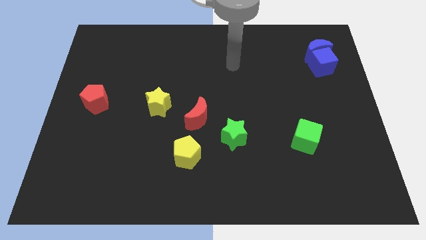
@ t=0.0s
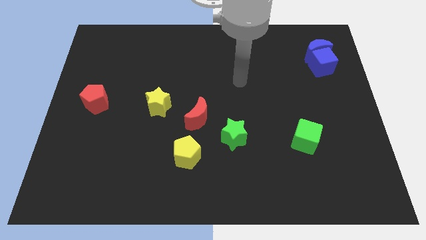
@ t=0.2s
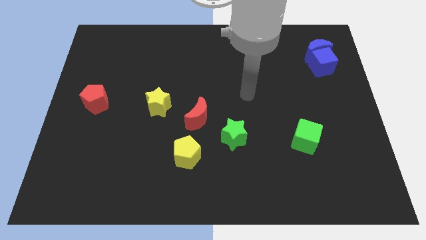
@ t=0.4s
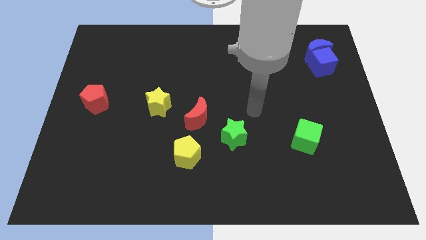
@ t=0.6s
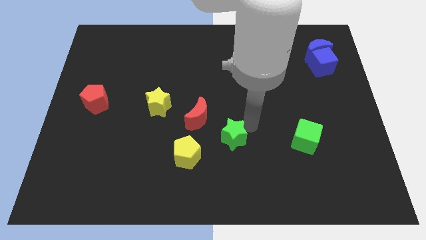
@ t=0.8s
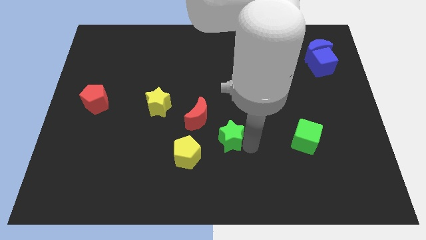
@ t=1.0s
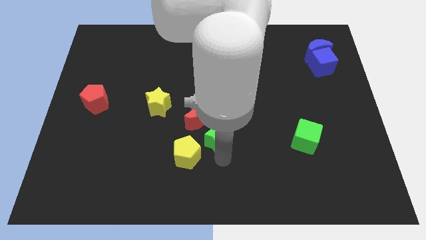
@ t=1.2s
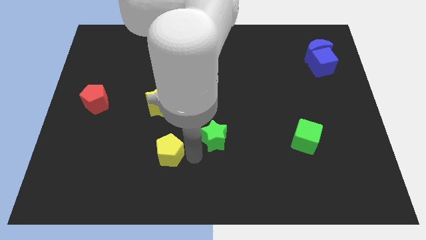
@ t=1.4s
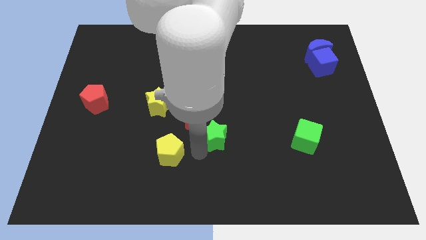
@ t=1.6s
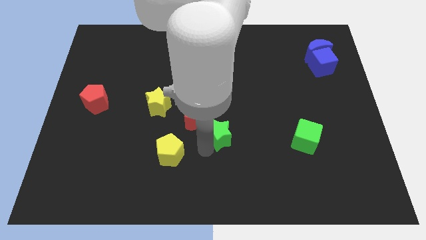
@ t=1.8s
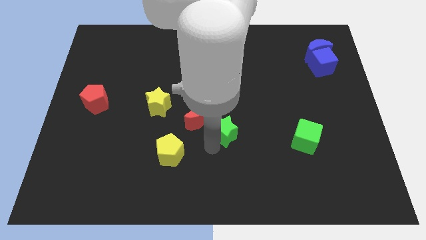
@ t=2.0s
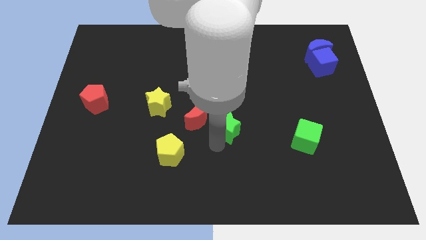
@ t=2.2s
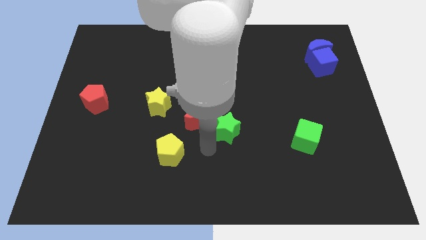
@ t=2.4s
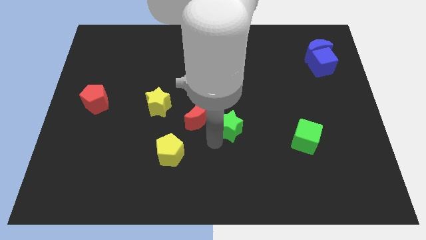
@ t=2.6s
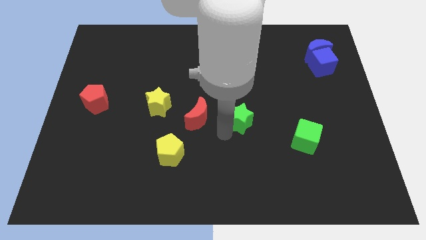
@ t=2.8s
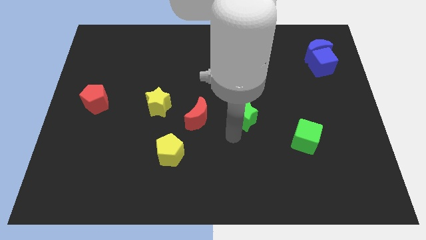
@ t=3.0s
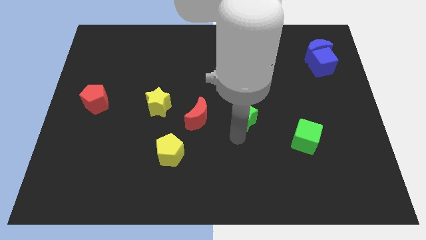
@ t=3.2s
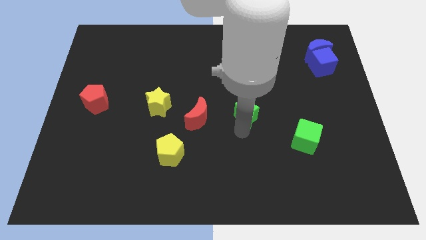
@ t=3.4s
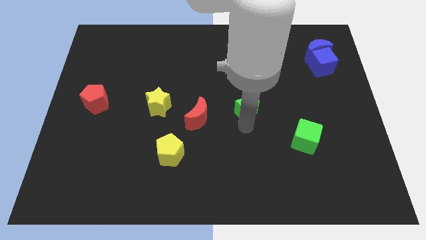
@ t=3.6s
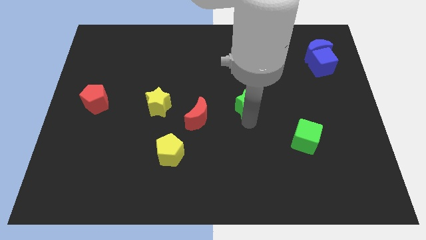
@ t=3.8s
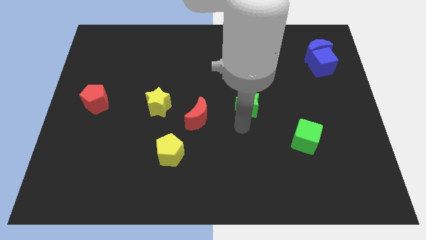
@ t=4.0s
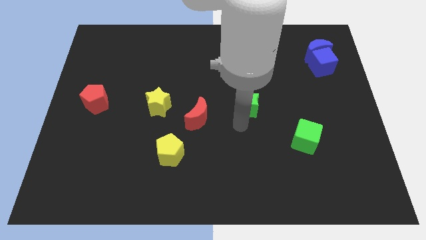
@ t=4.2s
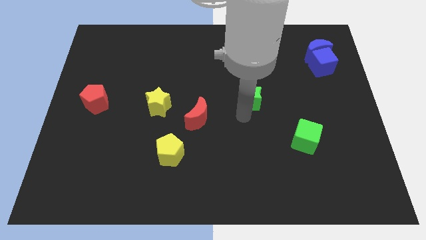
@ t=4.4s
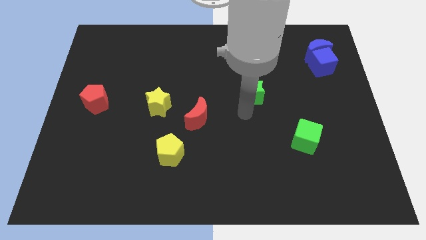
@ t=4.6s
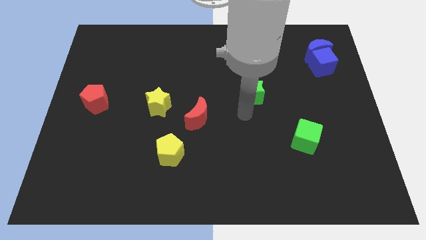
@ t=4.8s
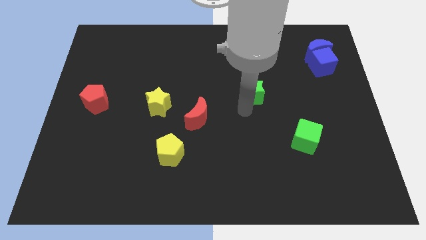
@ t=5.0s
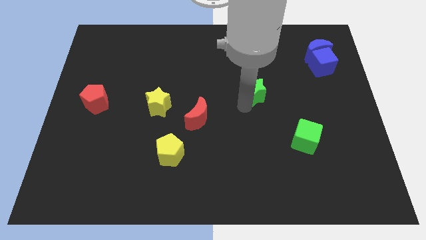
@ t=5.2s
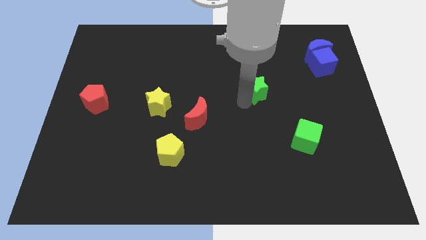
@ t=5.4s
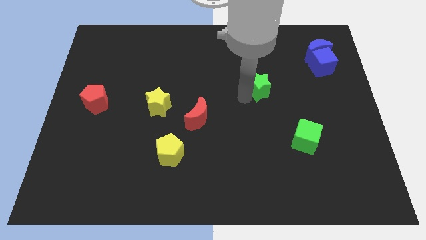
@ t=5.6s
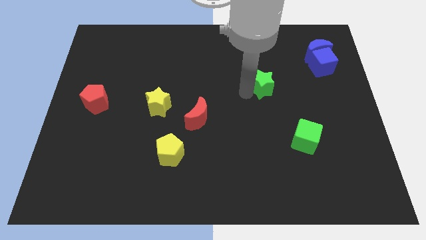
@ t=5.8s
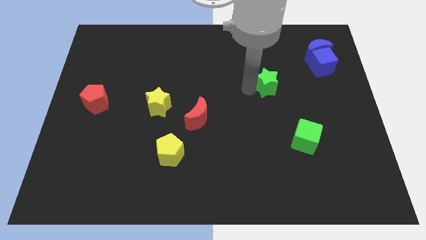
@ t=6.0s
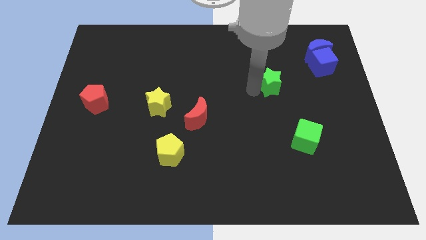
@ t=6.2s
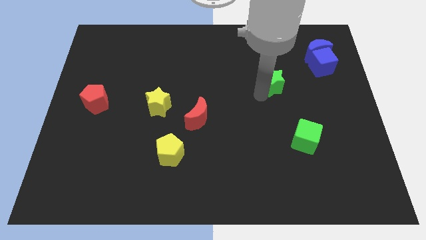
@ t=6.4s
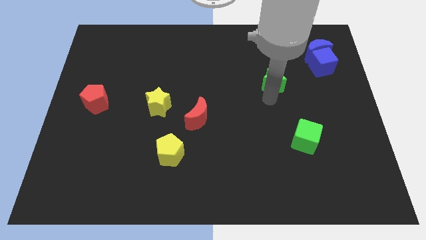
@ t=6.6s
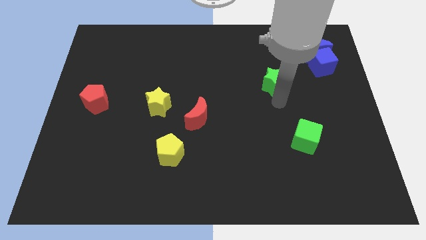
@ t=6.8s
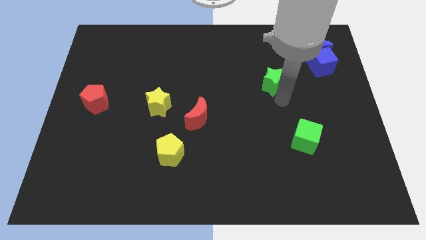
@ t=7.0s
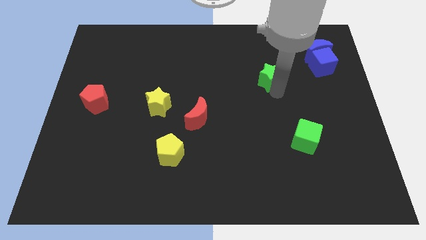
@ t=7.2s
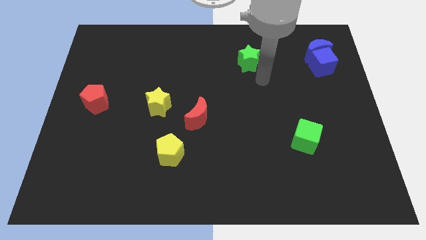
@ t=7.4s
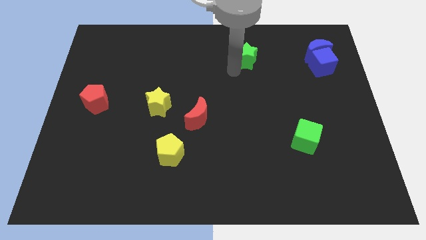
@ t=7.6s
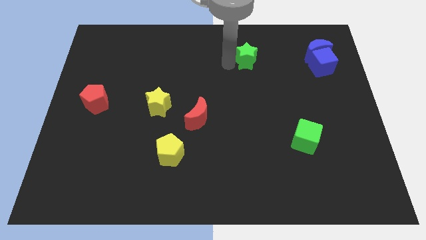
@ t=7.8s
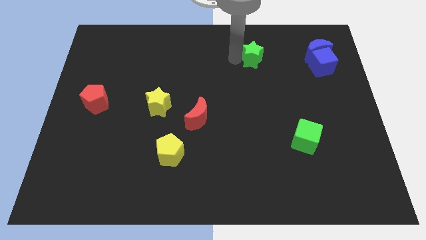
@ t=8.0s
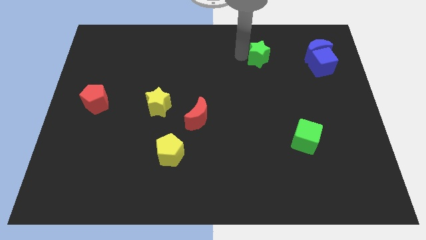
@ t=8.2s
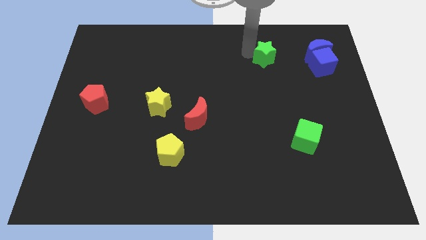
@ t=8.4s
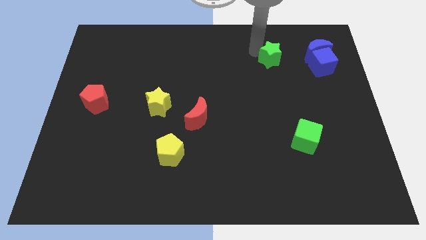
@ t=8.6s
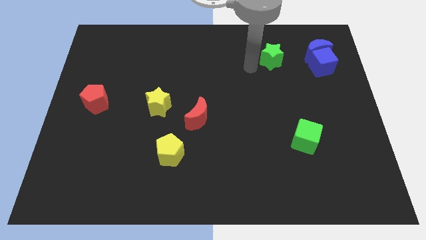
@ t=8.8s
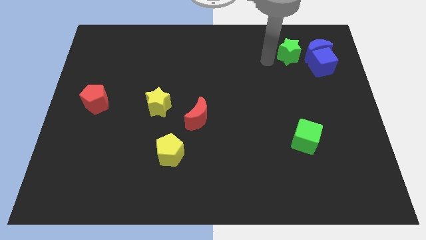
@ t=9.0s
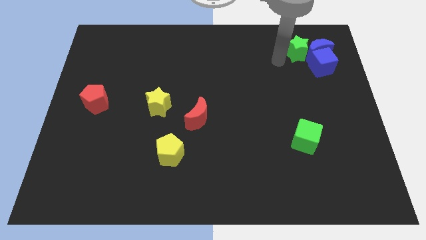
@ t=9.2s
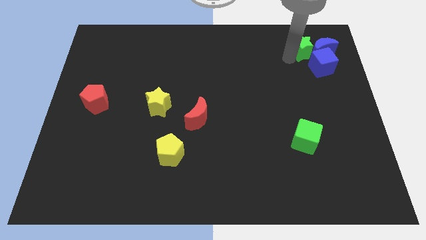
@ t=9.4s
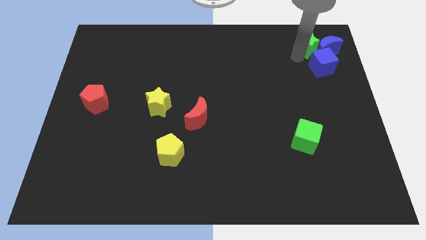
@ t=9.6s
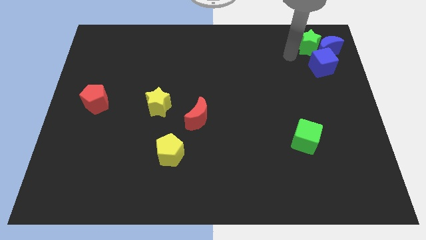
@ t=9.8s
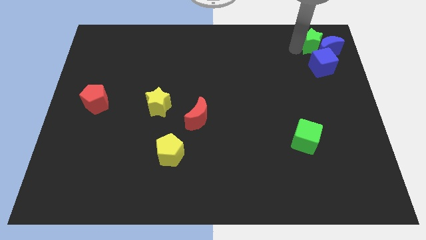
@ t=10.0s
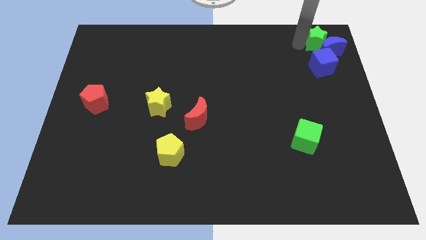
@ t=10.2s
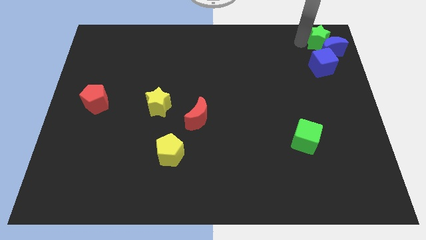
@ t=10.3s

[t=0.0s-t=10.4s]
move the green star to the top right of the board

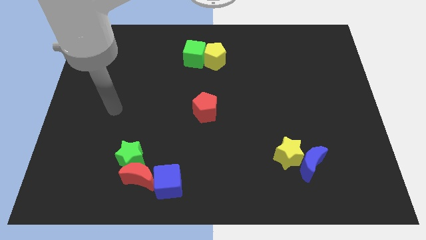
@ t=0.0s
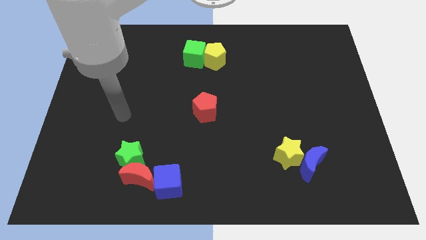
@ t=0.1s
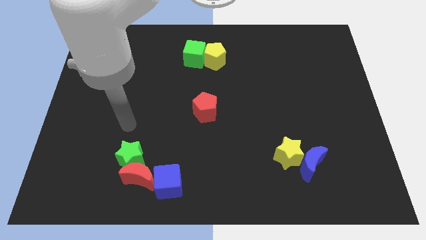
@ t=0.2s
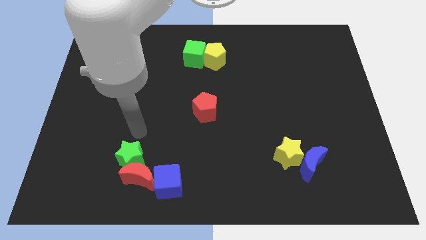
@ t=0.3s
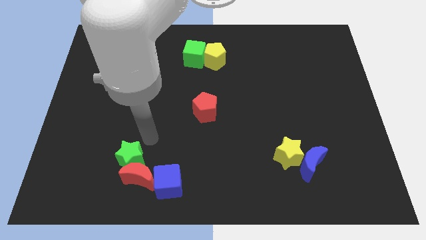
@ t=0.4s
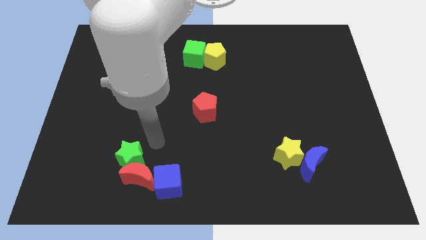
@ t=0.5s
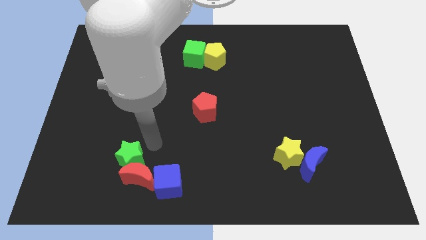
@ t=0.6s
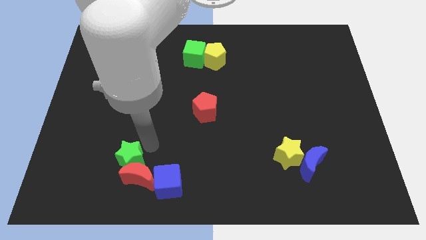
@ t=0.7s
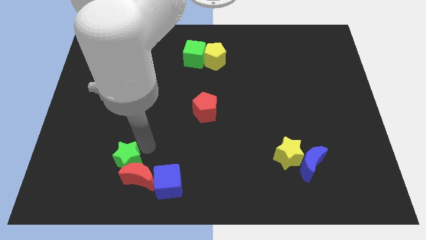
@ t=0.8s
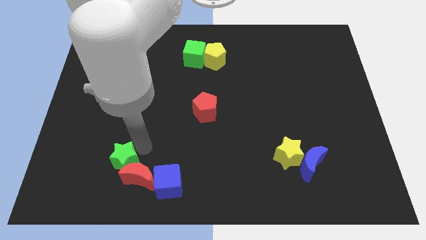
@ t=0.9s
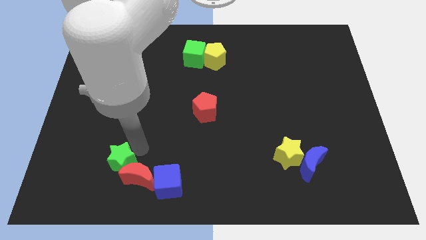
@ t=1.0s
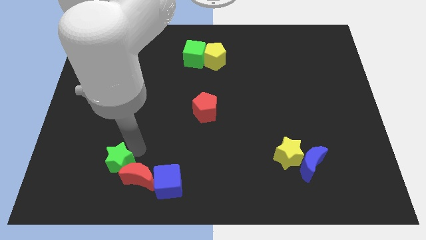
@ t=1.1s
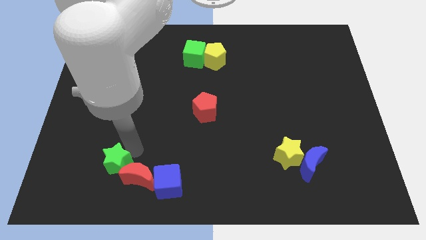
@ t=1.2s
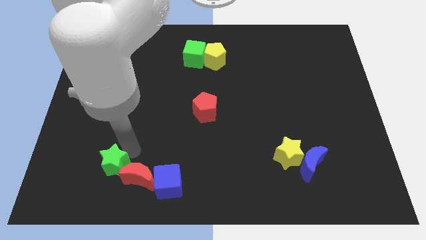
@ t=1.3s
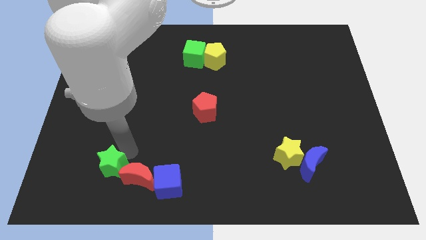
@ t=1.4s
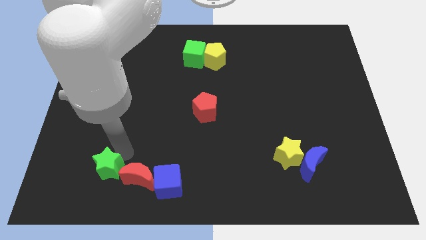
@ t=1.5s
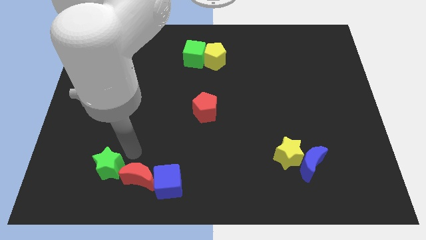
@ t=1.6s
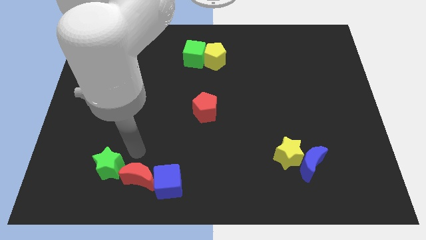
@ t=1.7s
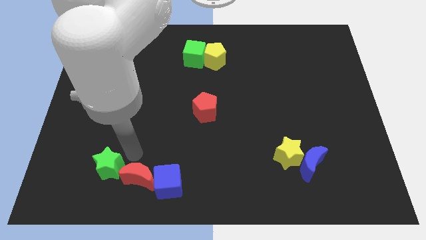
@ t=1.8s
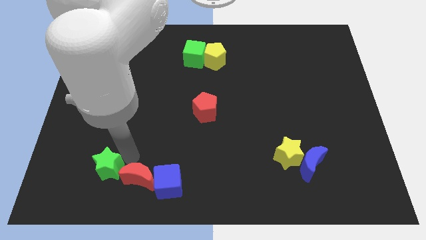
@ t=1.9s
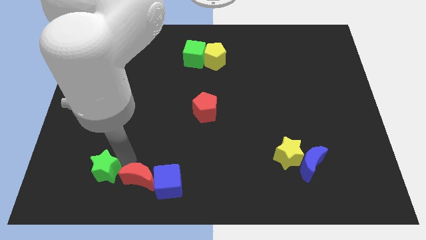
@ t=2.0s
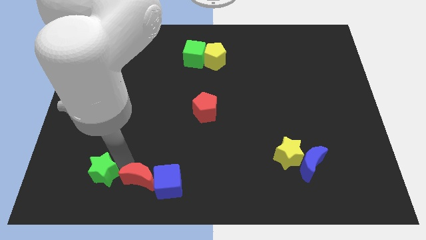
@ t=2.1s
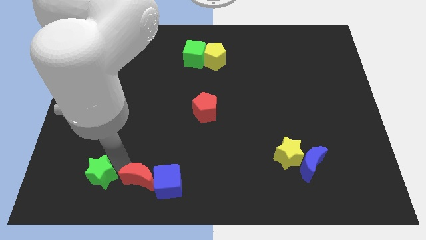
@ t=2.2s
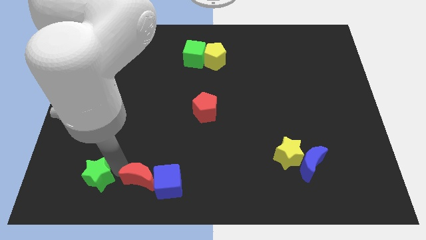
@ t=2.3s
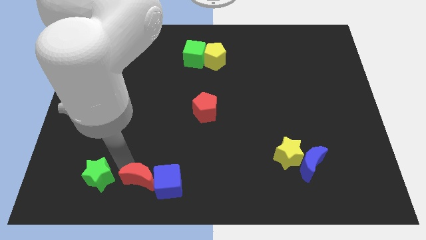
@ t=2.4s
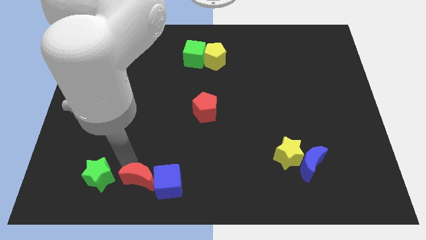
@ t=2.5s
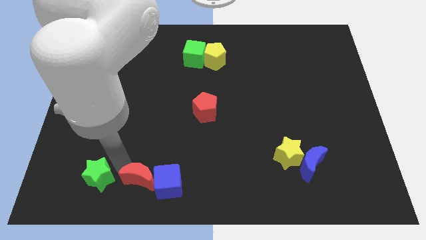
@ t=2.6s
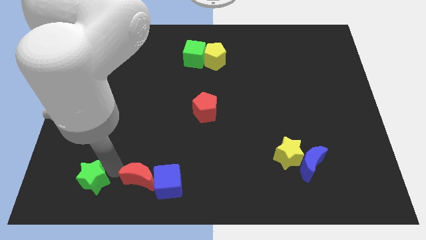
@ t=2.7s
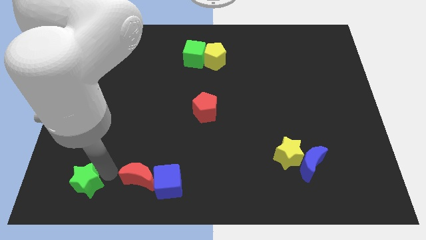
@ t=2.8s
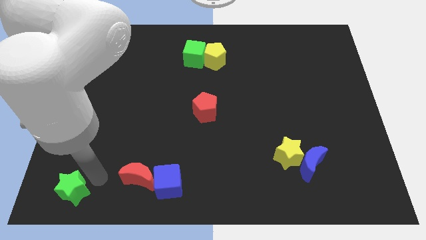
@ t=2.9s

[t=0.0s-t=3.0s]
put the green star to the bottom left
